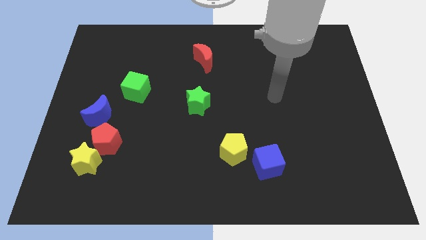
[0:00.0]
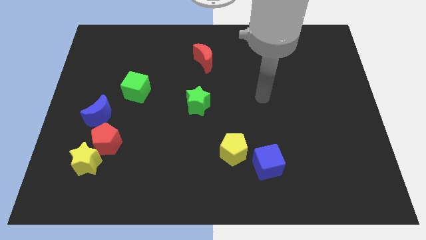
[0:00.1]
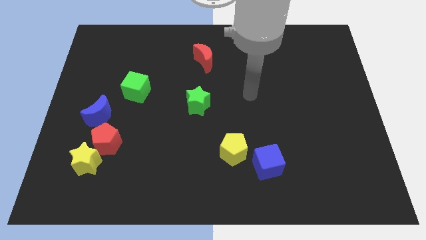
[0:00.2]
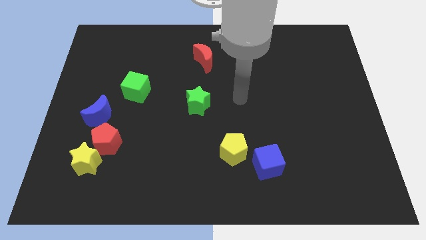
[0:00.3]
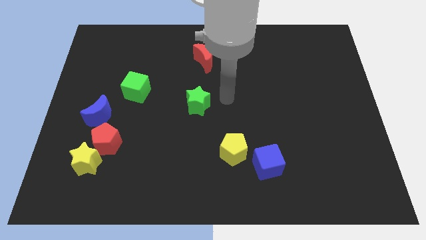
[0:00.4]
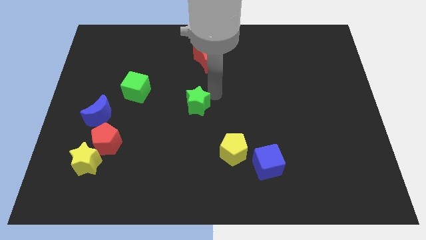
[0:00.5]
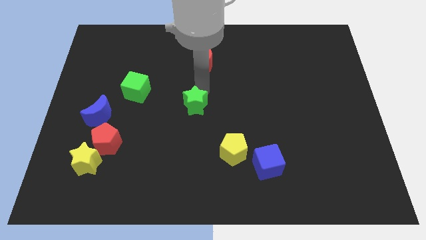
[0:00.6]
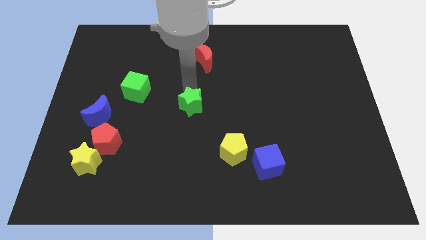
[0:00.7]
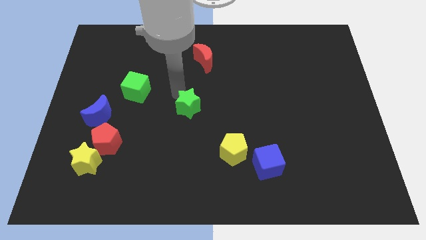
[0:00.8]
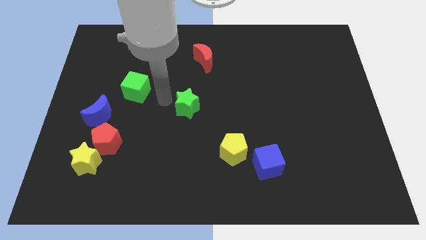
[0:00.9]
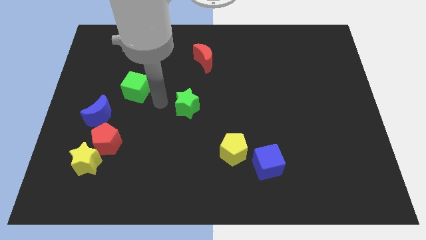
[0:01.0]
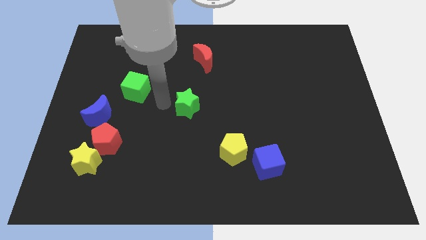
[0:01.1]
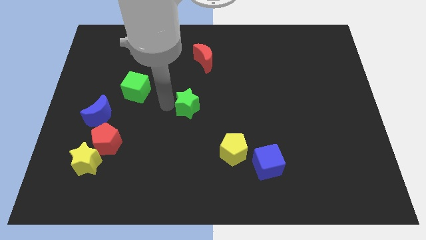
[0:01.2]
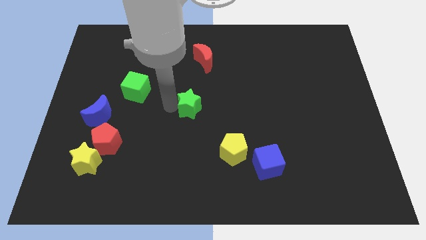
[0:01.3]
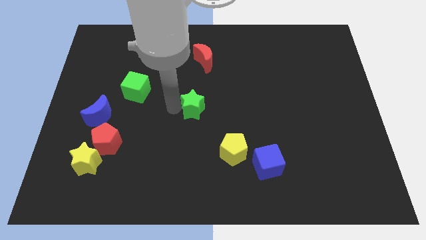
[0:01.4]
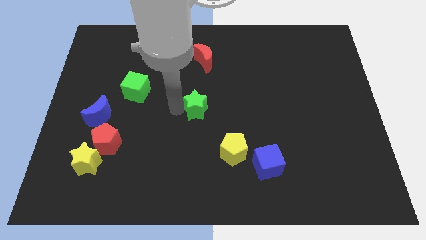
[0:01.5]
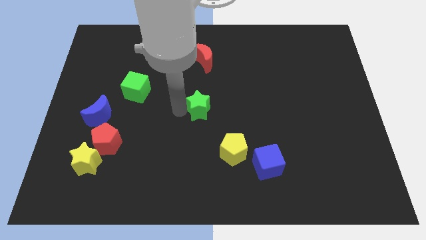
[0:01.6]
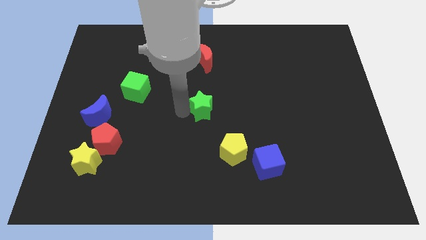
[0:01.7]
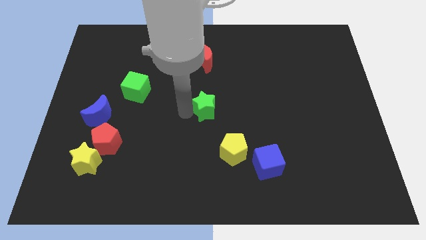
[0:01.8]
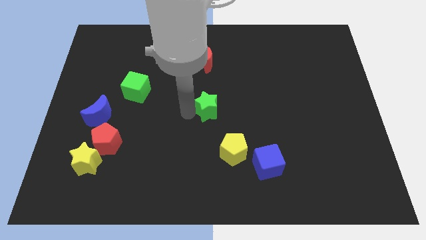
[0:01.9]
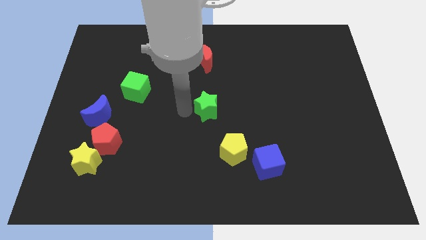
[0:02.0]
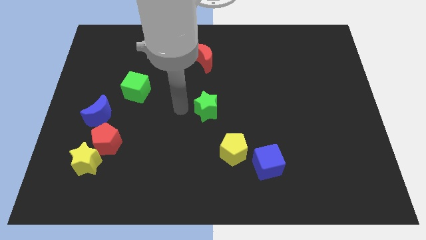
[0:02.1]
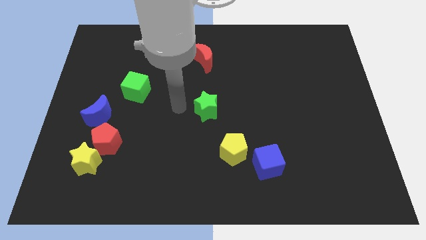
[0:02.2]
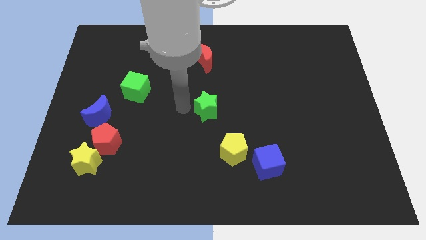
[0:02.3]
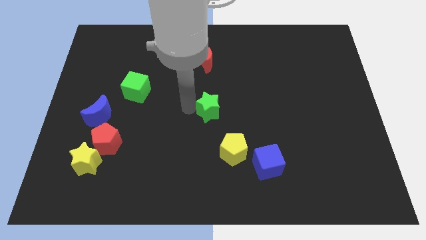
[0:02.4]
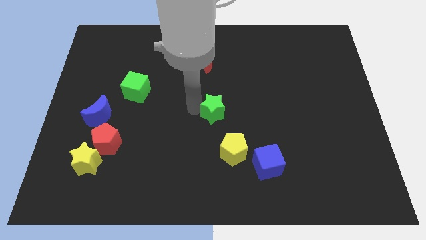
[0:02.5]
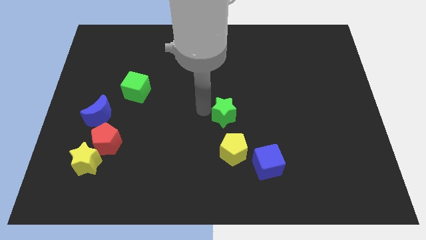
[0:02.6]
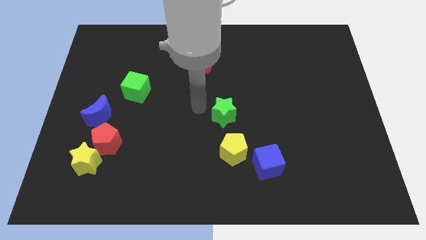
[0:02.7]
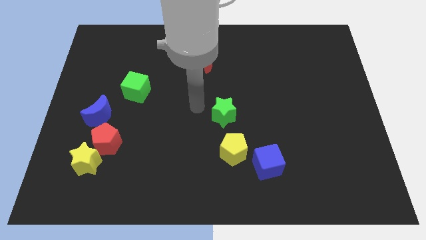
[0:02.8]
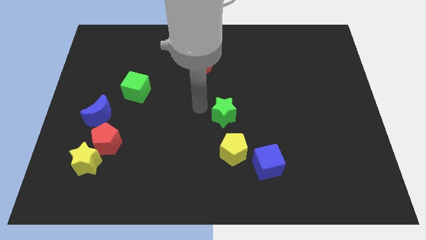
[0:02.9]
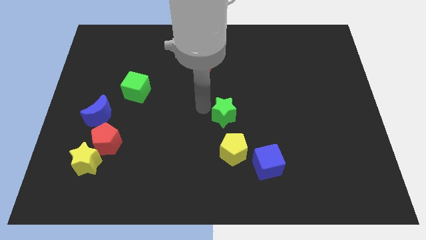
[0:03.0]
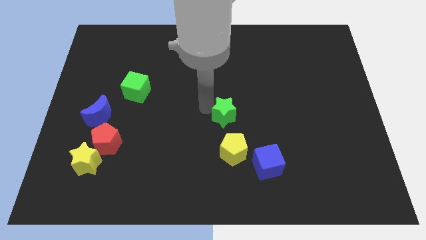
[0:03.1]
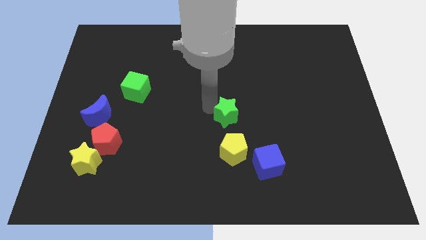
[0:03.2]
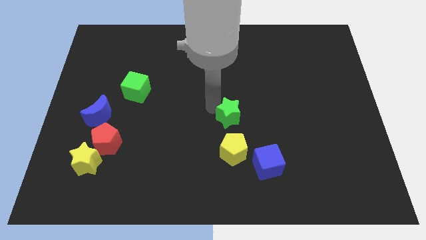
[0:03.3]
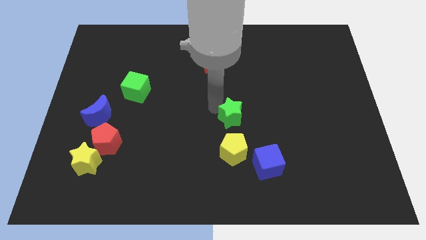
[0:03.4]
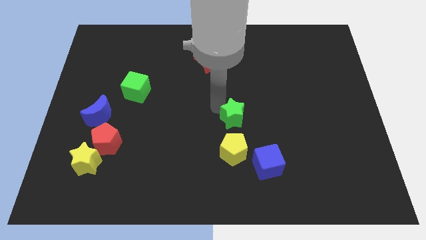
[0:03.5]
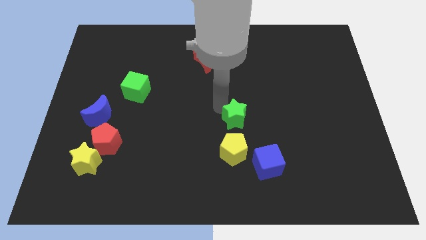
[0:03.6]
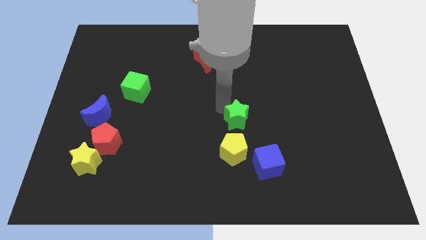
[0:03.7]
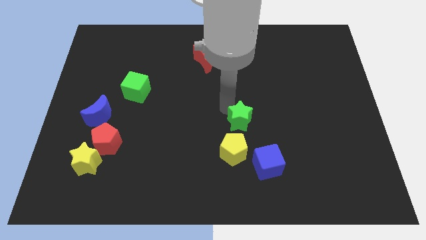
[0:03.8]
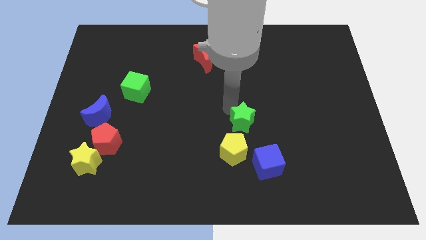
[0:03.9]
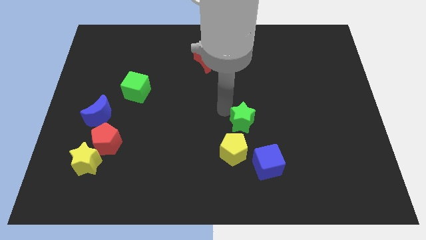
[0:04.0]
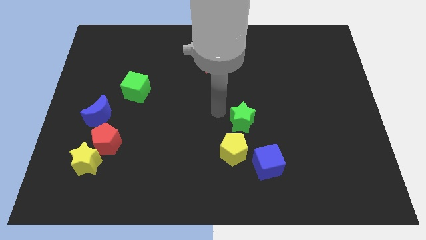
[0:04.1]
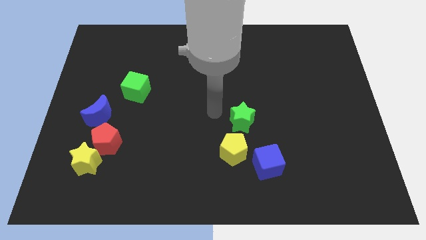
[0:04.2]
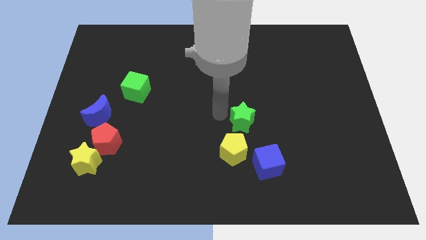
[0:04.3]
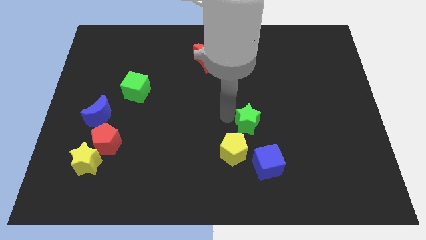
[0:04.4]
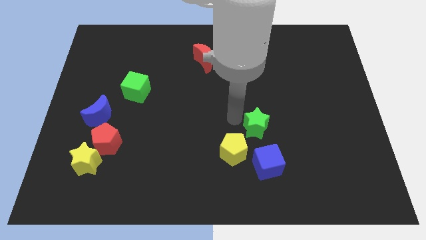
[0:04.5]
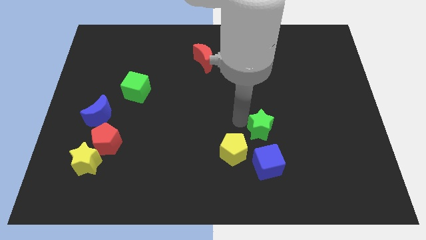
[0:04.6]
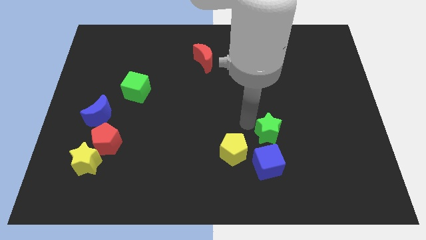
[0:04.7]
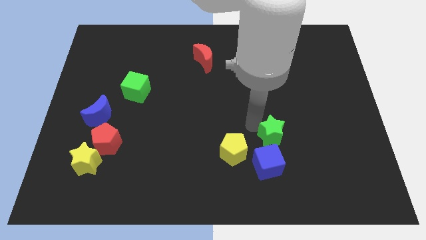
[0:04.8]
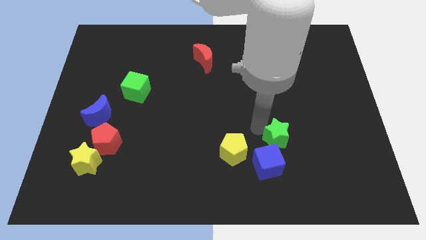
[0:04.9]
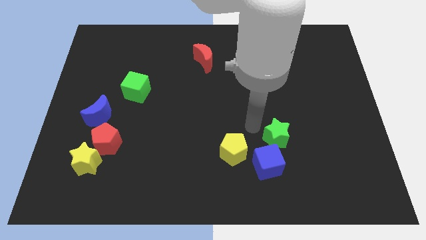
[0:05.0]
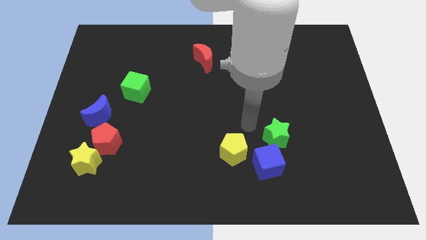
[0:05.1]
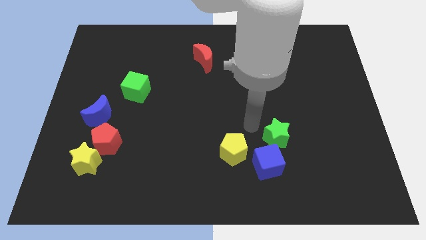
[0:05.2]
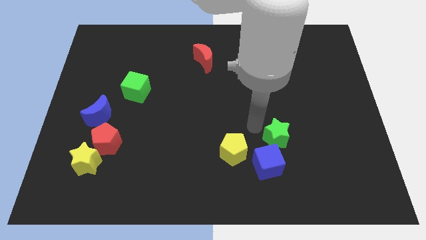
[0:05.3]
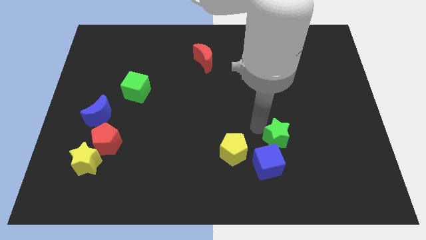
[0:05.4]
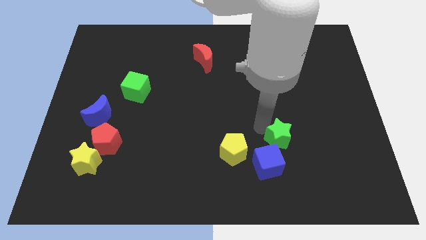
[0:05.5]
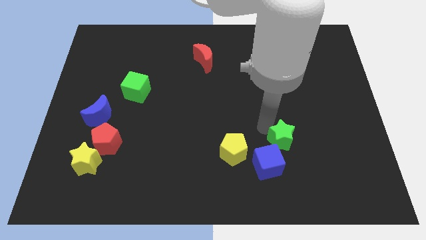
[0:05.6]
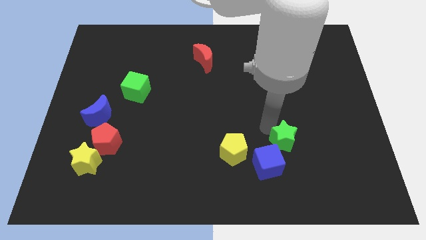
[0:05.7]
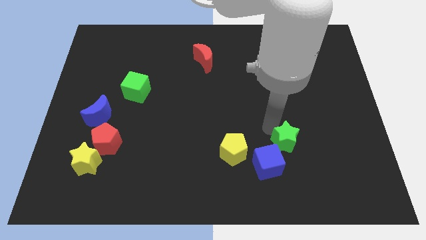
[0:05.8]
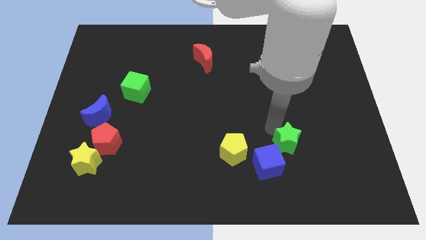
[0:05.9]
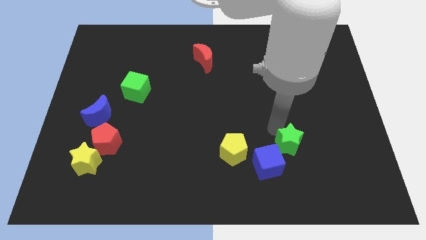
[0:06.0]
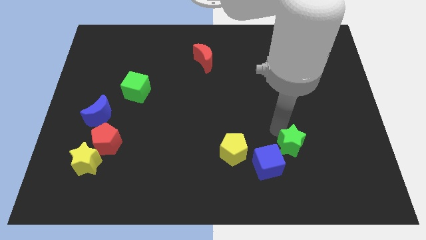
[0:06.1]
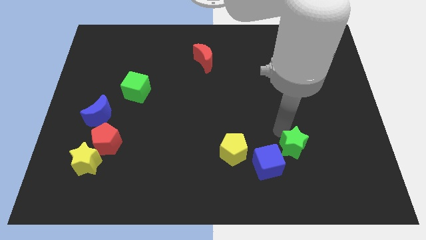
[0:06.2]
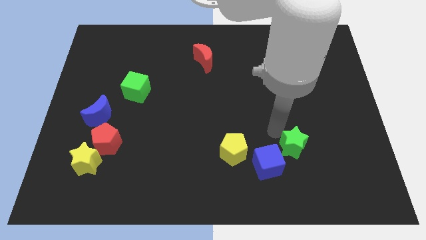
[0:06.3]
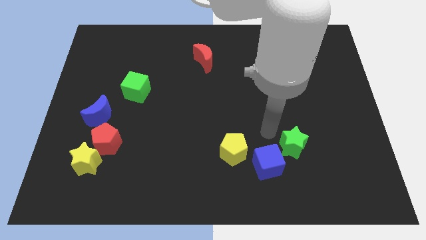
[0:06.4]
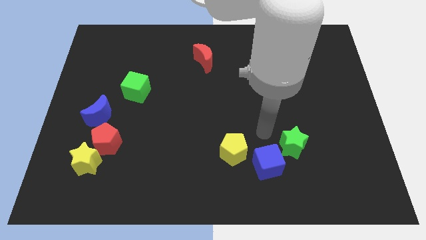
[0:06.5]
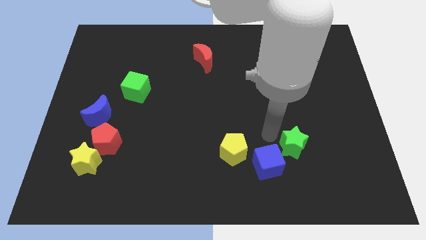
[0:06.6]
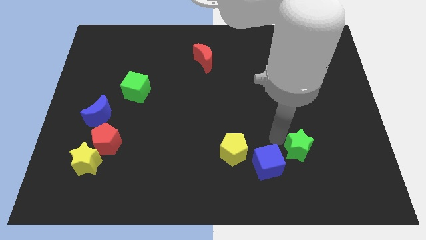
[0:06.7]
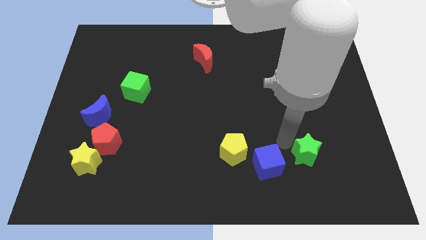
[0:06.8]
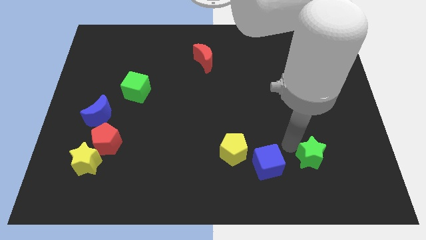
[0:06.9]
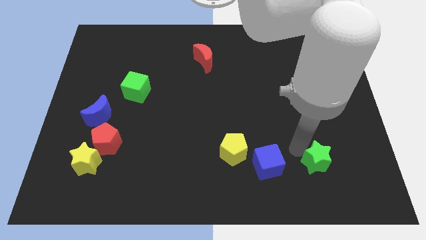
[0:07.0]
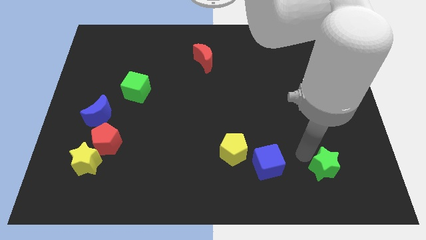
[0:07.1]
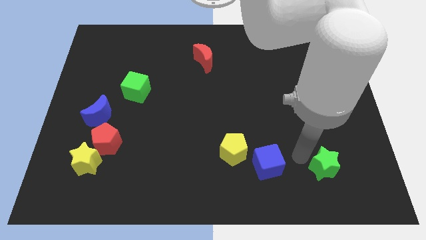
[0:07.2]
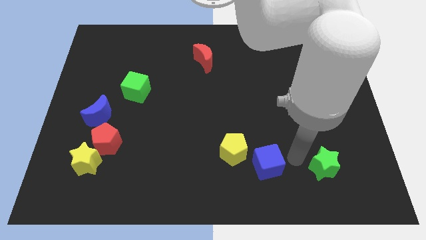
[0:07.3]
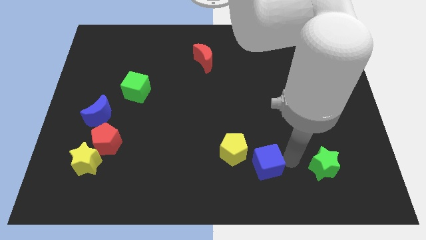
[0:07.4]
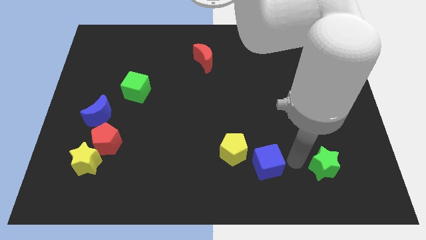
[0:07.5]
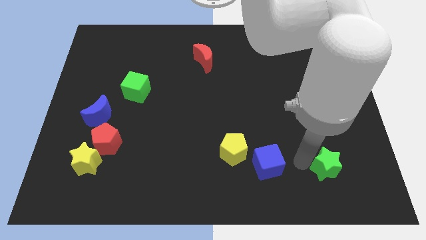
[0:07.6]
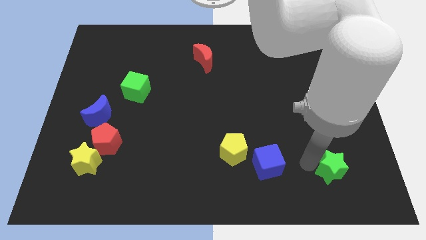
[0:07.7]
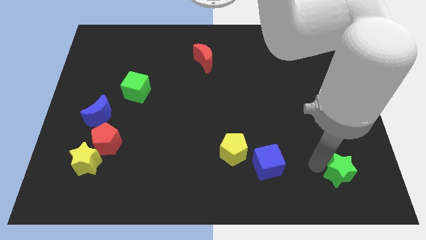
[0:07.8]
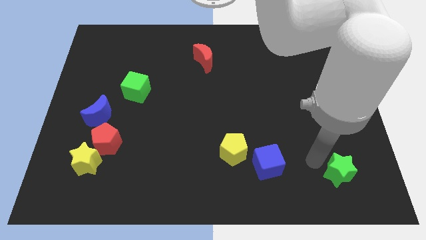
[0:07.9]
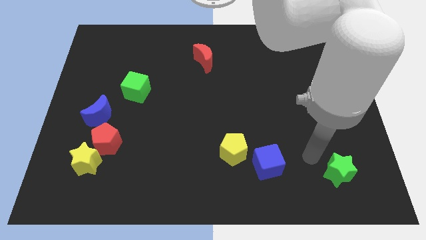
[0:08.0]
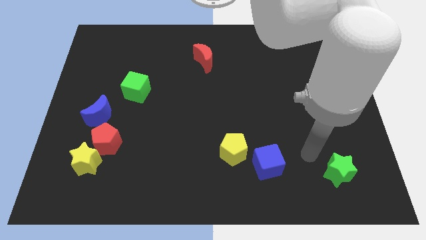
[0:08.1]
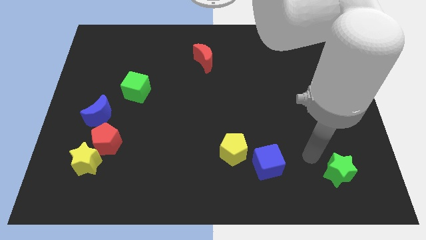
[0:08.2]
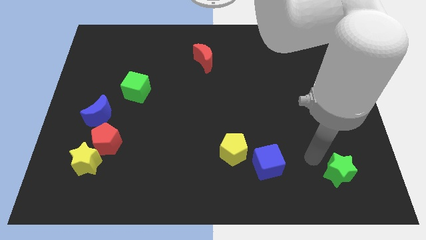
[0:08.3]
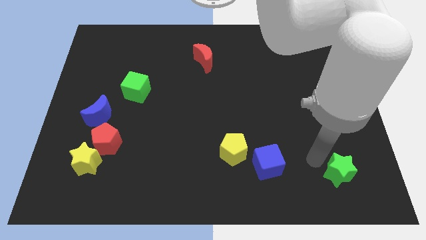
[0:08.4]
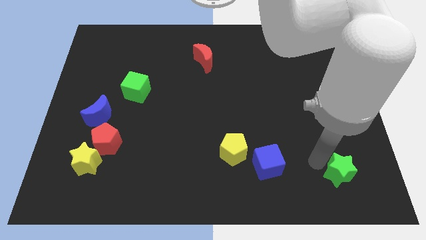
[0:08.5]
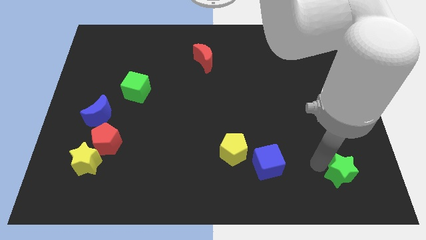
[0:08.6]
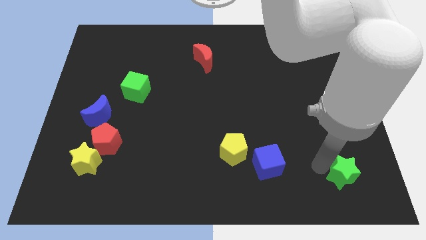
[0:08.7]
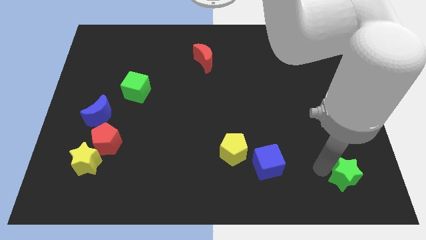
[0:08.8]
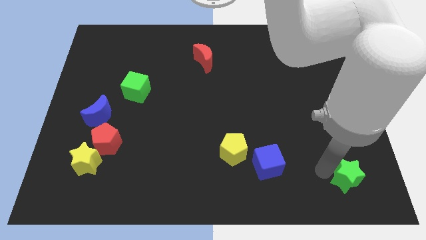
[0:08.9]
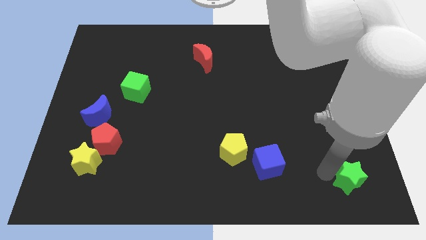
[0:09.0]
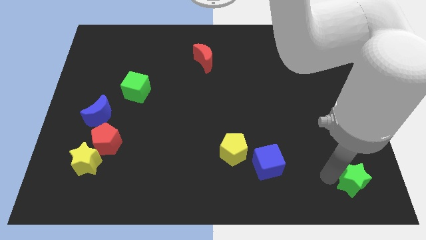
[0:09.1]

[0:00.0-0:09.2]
push the green star to the bottom right
